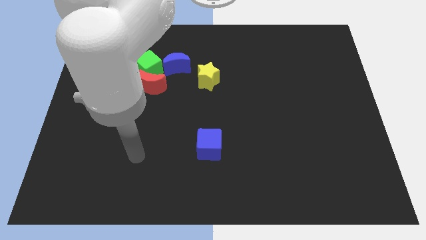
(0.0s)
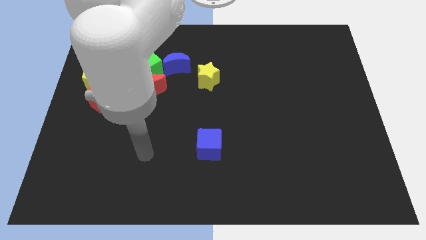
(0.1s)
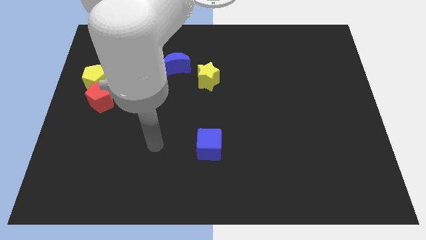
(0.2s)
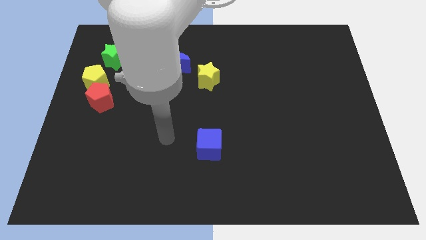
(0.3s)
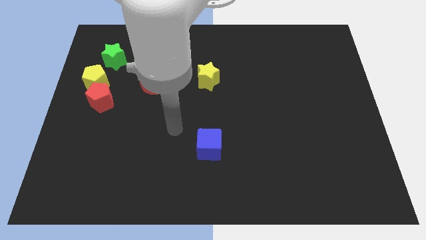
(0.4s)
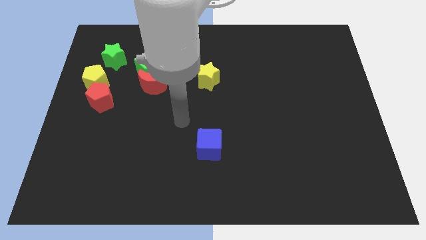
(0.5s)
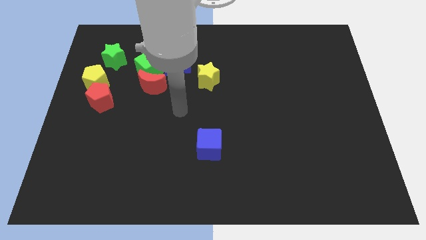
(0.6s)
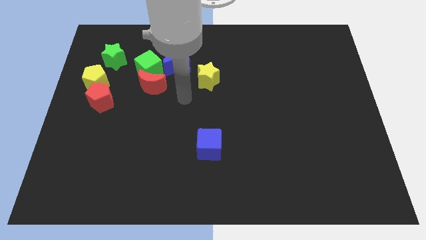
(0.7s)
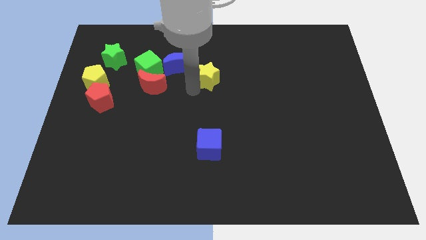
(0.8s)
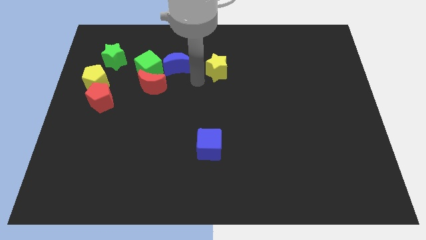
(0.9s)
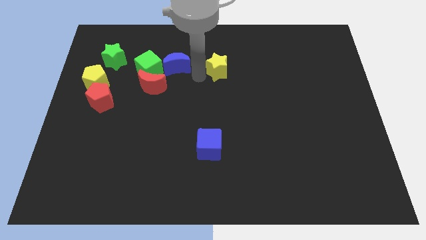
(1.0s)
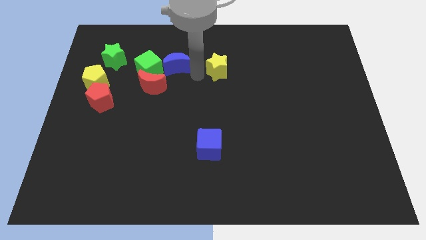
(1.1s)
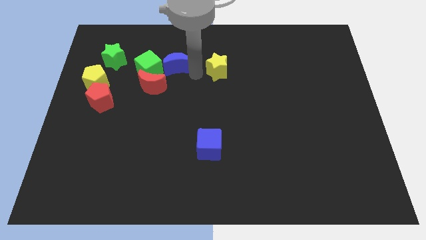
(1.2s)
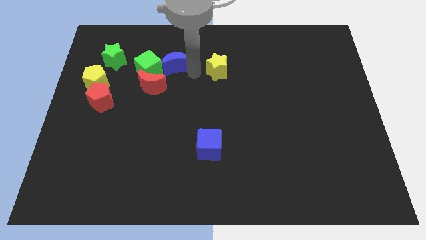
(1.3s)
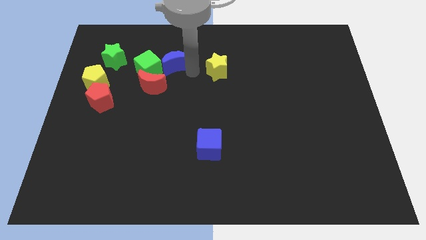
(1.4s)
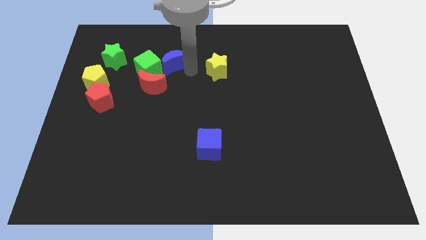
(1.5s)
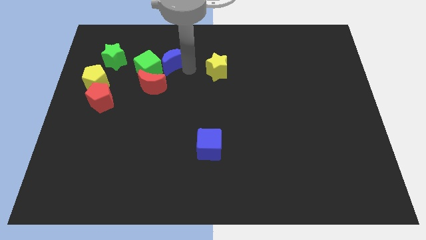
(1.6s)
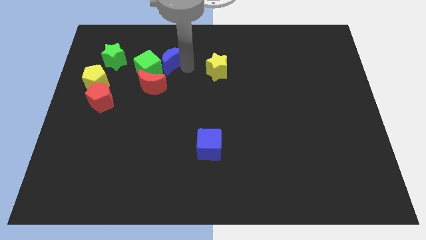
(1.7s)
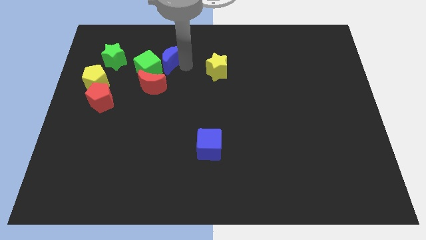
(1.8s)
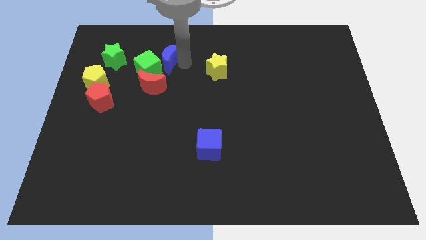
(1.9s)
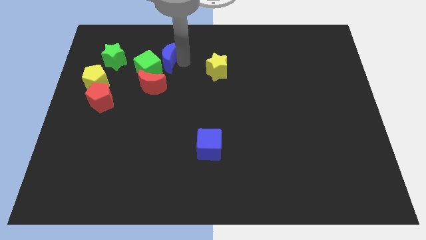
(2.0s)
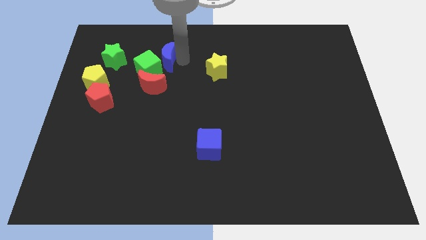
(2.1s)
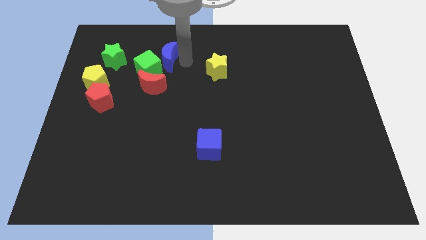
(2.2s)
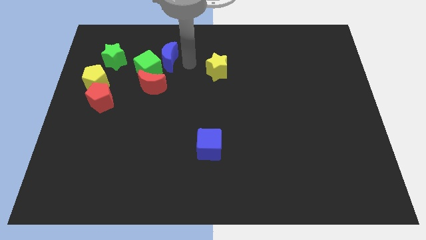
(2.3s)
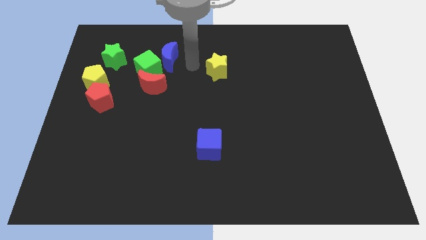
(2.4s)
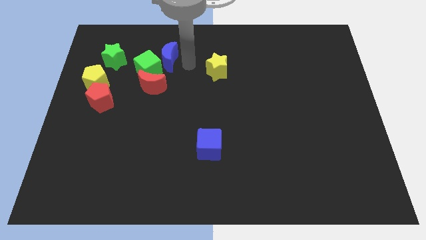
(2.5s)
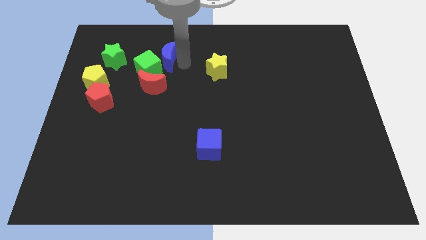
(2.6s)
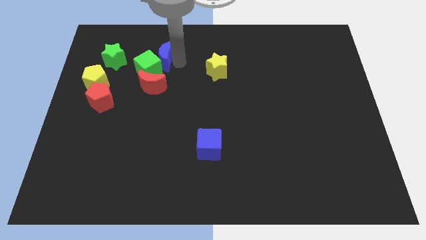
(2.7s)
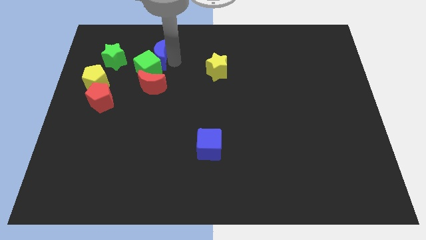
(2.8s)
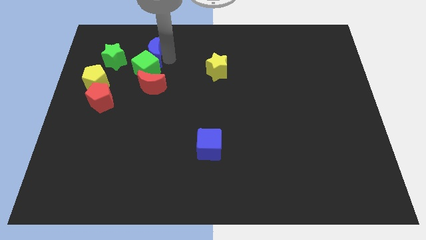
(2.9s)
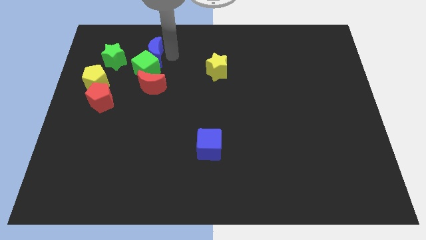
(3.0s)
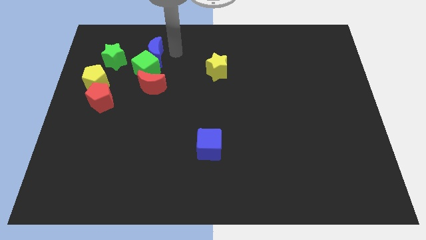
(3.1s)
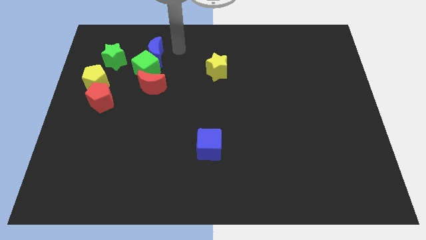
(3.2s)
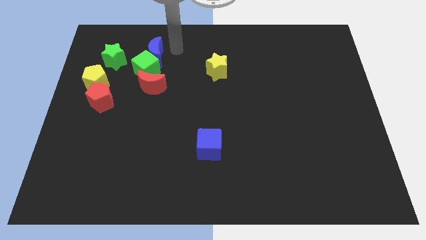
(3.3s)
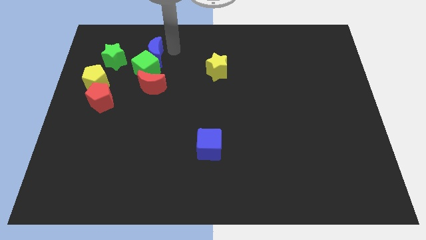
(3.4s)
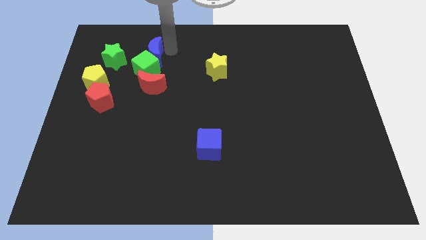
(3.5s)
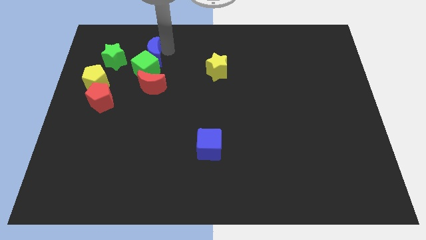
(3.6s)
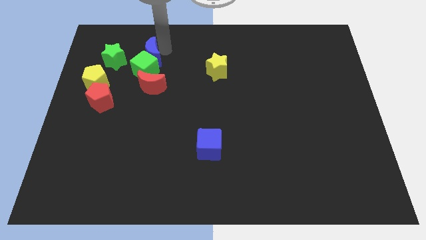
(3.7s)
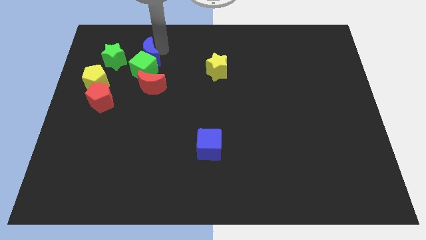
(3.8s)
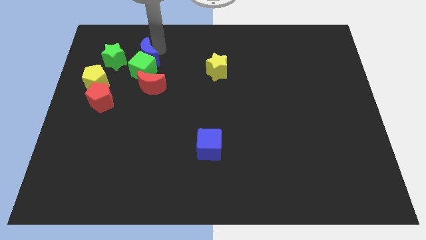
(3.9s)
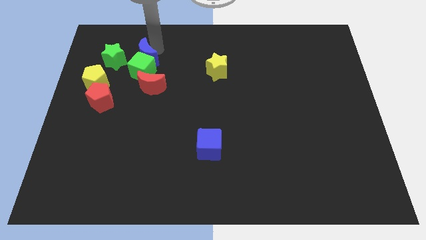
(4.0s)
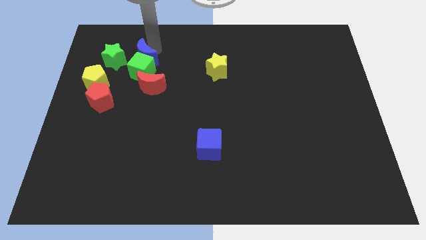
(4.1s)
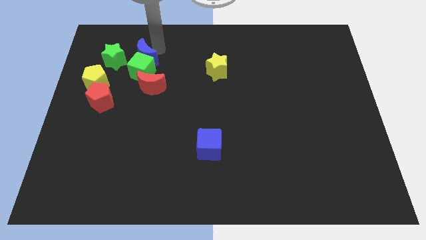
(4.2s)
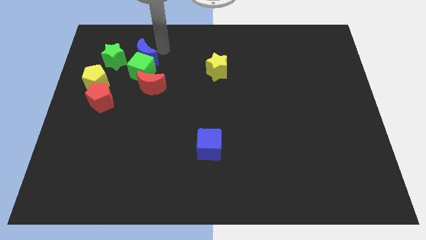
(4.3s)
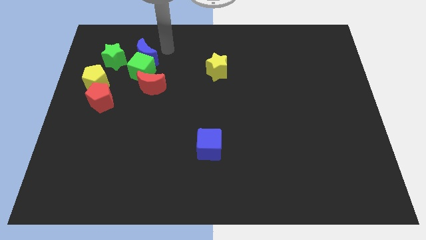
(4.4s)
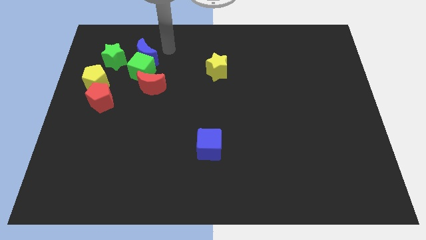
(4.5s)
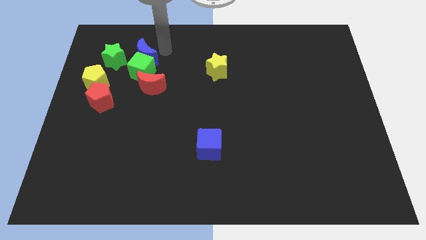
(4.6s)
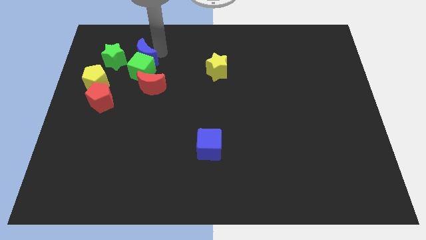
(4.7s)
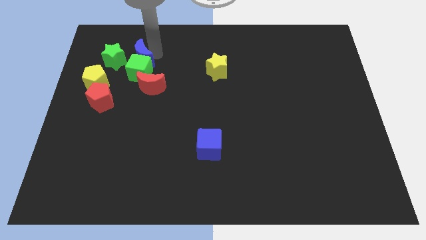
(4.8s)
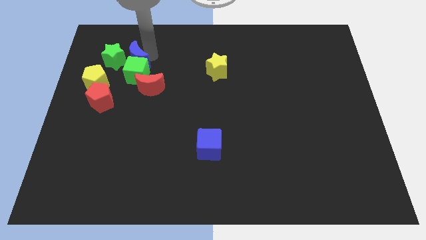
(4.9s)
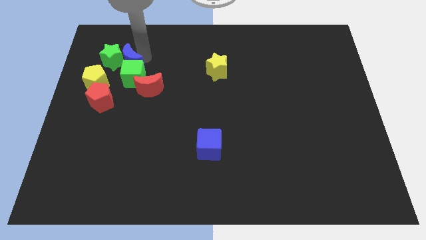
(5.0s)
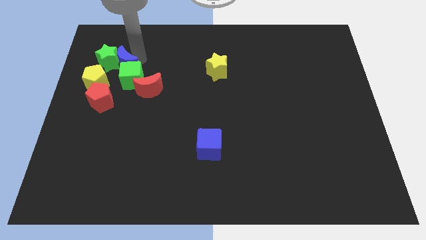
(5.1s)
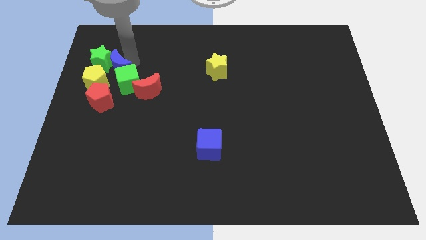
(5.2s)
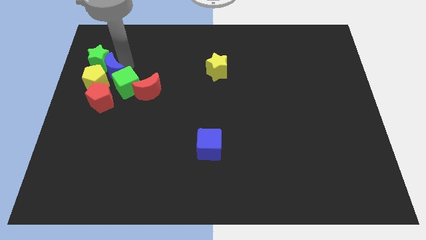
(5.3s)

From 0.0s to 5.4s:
put the blue moon towards the yellow pentagon

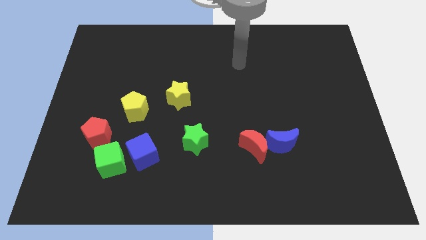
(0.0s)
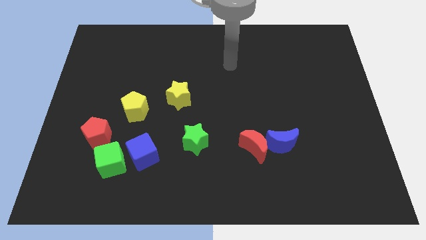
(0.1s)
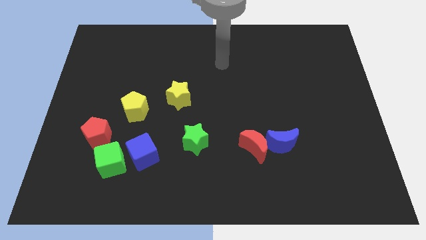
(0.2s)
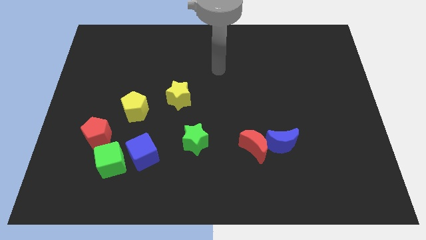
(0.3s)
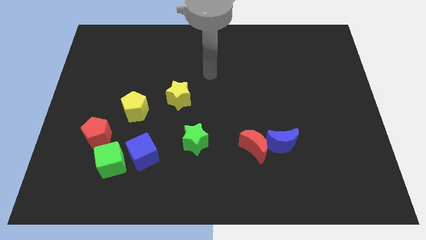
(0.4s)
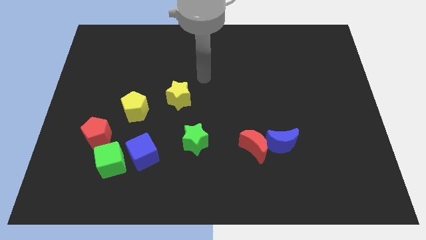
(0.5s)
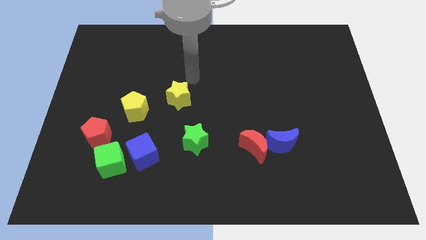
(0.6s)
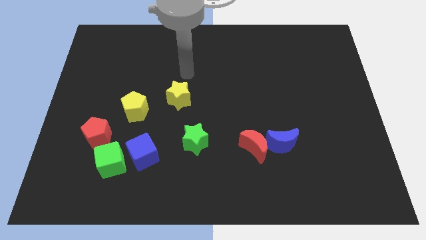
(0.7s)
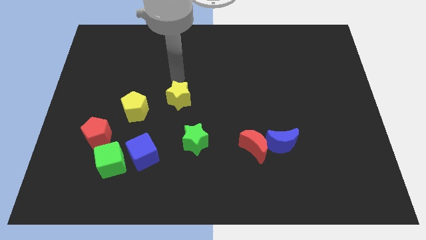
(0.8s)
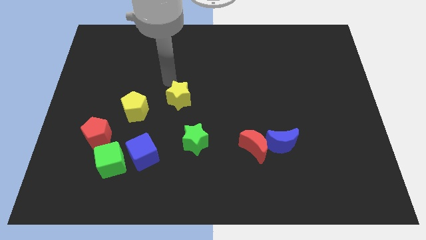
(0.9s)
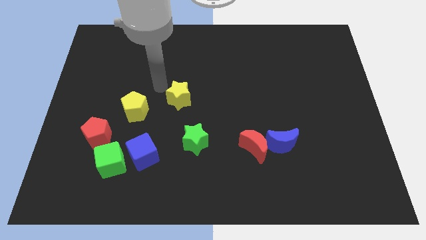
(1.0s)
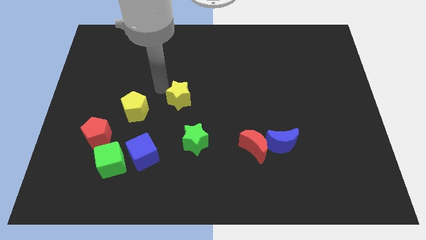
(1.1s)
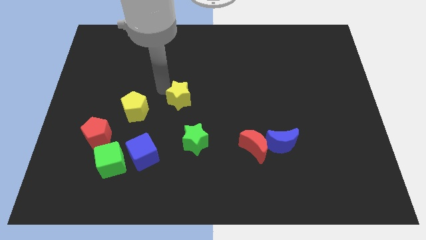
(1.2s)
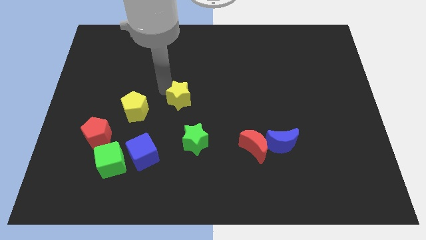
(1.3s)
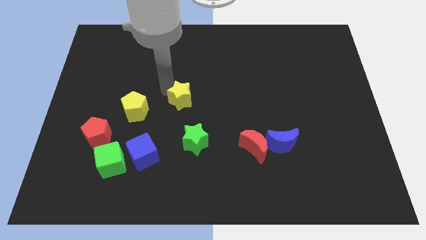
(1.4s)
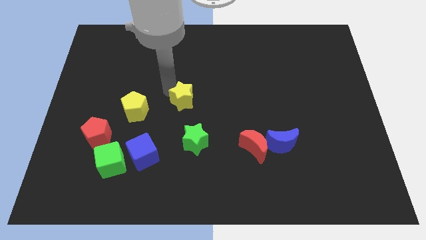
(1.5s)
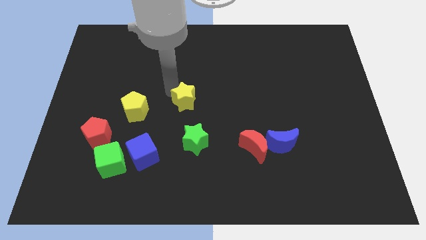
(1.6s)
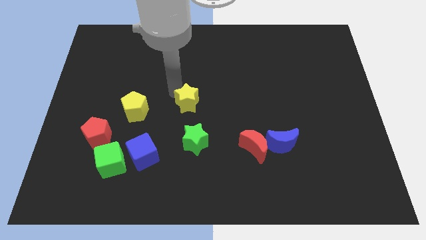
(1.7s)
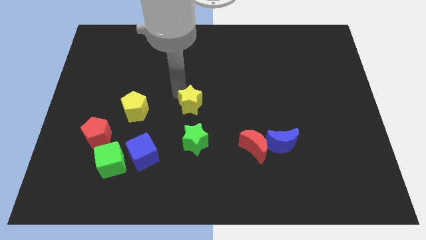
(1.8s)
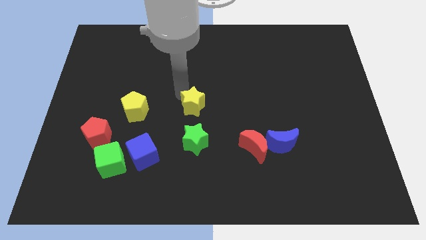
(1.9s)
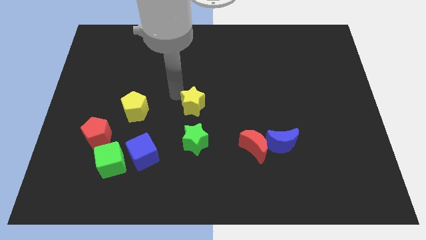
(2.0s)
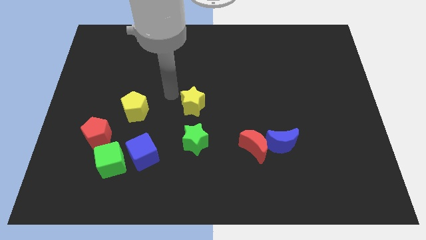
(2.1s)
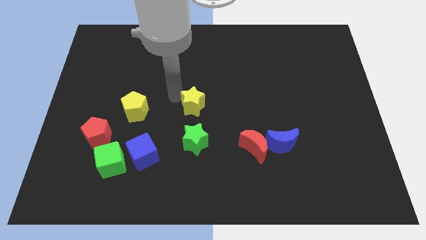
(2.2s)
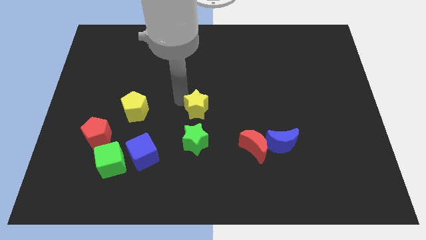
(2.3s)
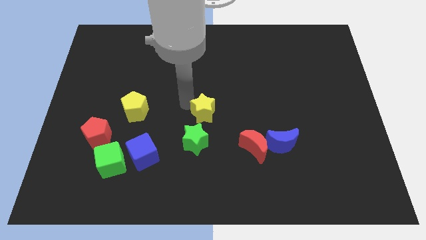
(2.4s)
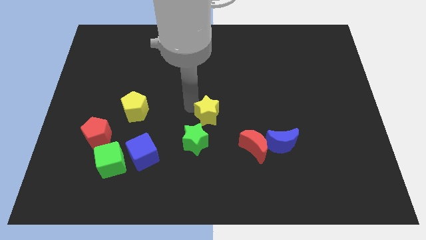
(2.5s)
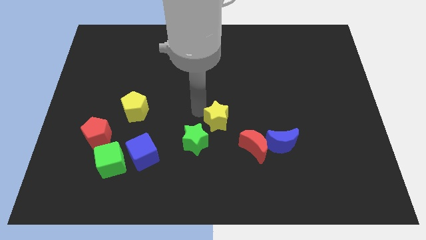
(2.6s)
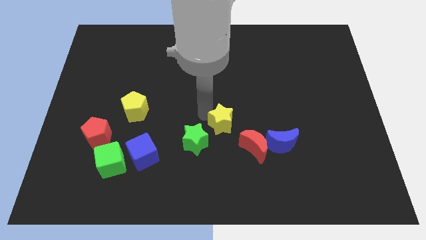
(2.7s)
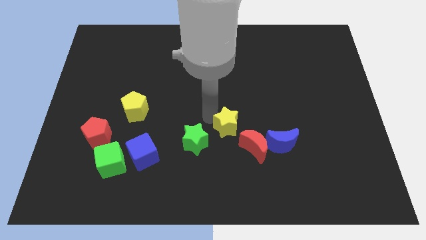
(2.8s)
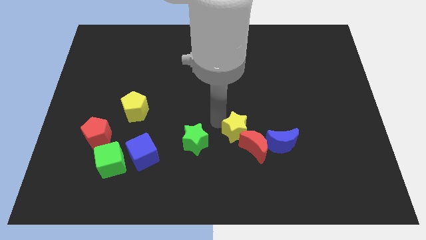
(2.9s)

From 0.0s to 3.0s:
move the yellow star towards the red moon
